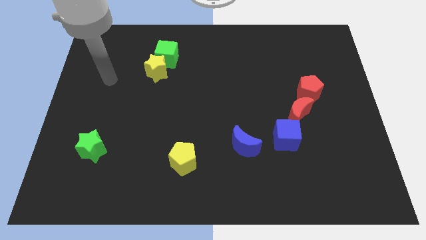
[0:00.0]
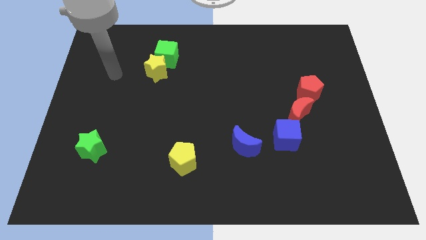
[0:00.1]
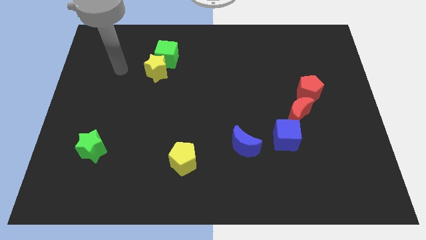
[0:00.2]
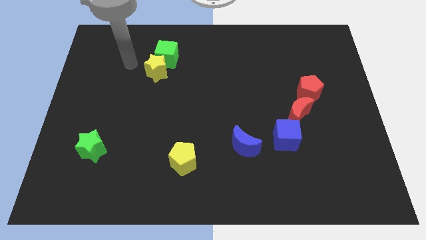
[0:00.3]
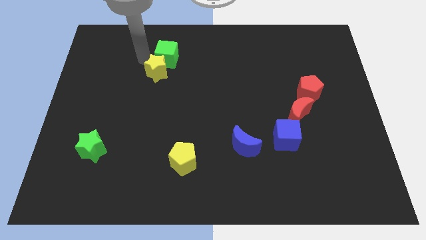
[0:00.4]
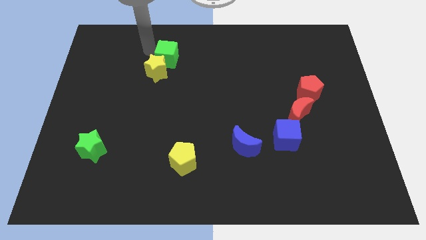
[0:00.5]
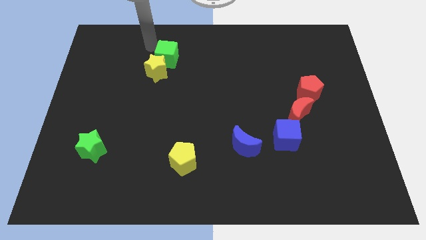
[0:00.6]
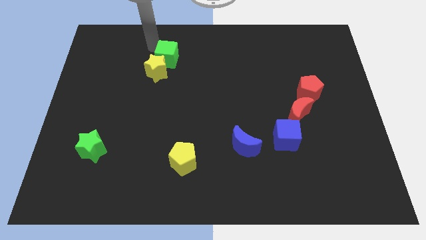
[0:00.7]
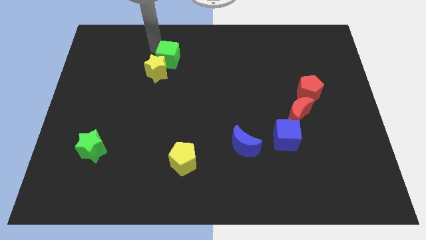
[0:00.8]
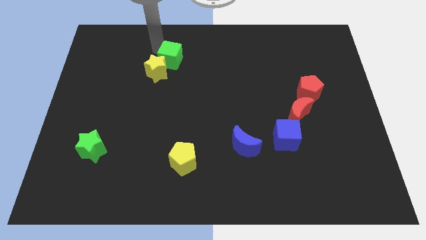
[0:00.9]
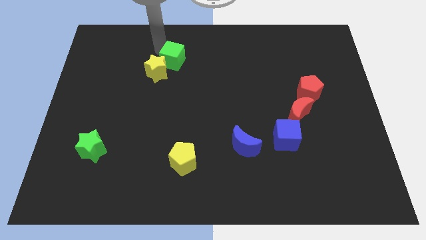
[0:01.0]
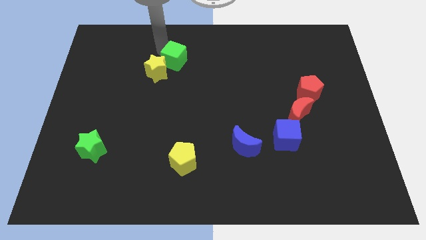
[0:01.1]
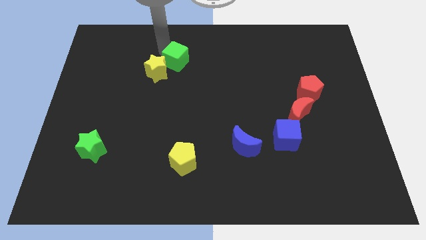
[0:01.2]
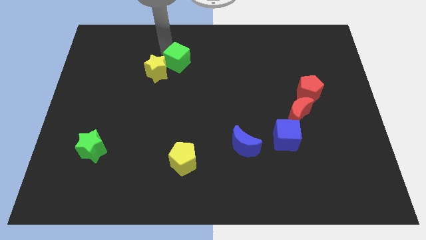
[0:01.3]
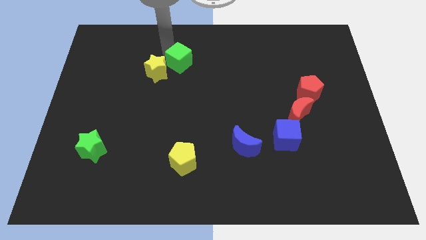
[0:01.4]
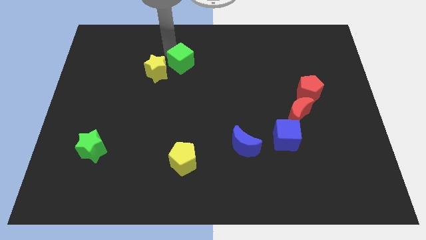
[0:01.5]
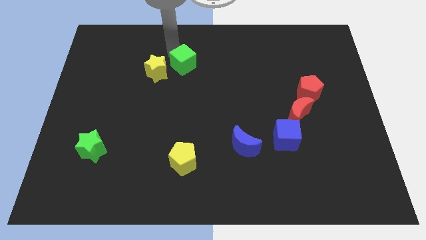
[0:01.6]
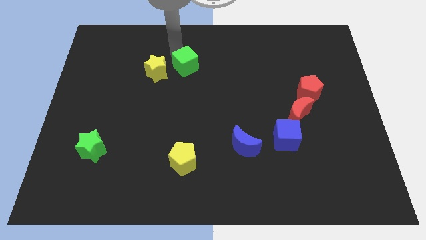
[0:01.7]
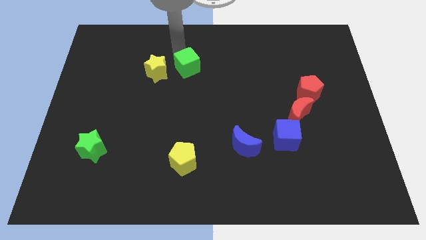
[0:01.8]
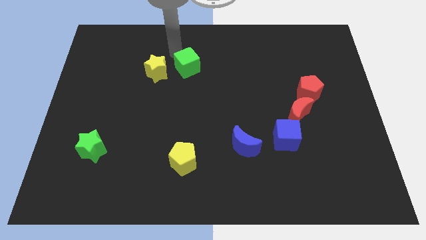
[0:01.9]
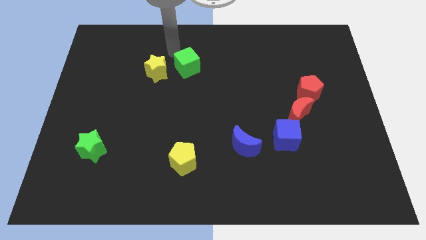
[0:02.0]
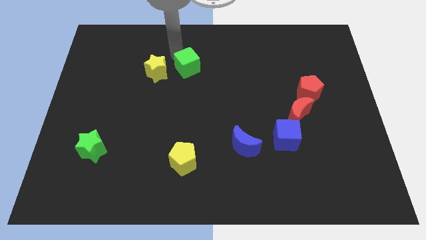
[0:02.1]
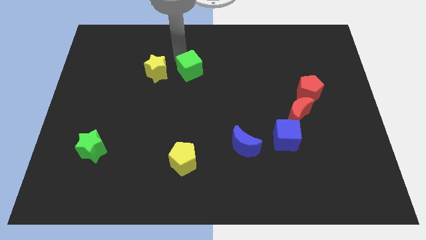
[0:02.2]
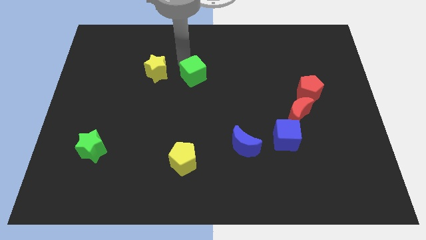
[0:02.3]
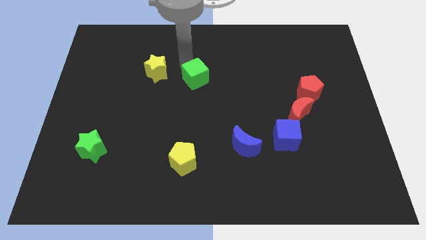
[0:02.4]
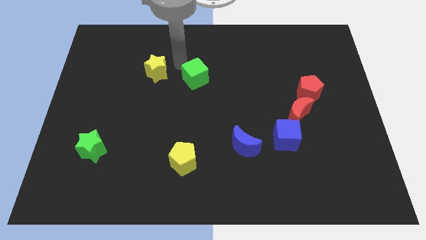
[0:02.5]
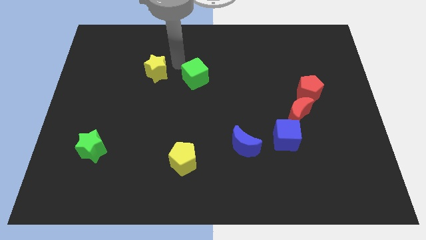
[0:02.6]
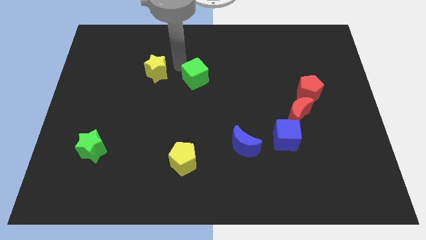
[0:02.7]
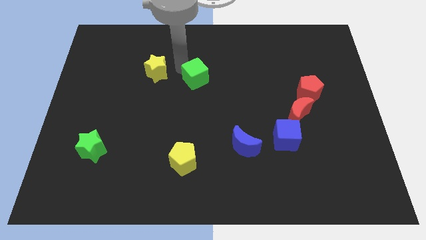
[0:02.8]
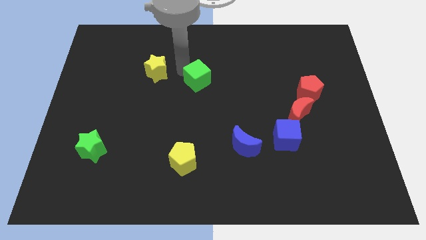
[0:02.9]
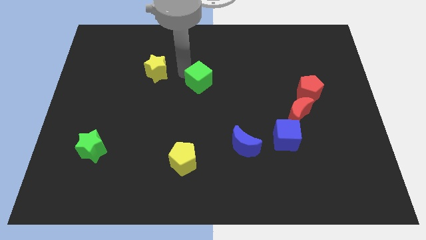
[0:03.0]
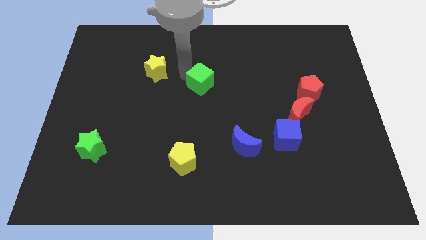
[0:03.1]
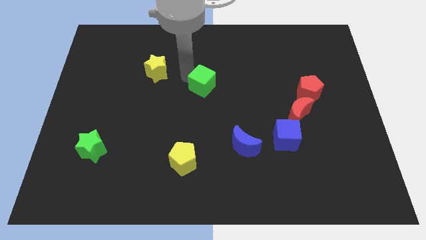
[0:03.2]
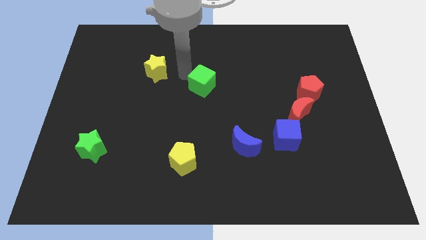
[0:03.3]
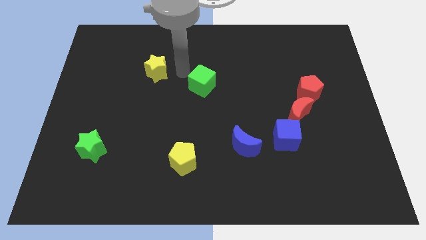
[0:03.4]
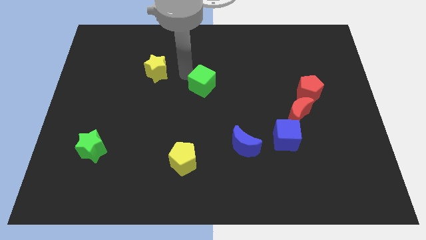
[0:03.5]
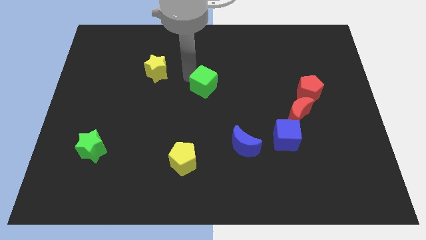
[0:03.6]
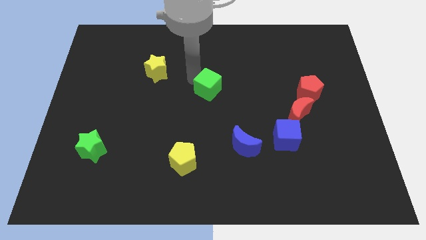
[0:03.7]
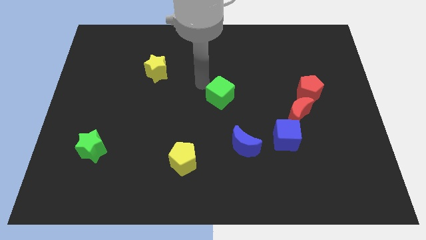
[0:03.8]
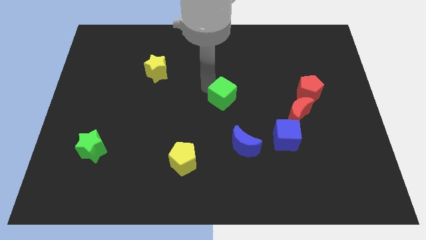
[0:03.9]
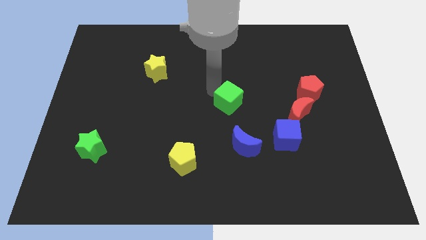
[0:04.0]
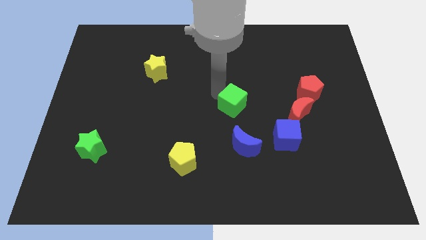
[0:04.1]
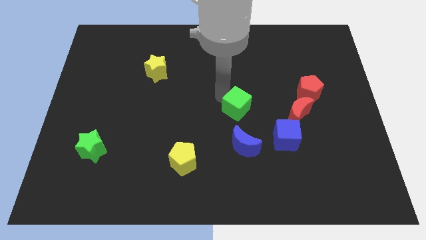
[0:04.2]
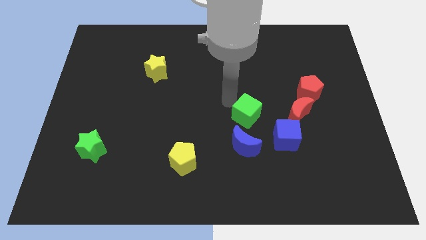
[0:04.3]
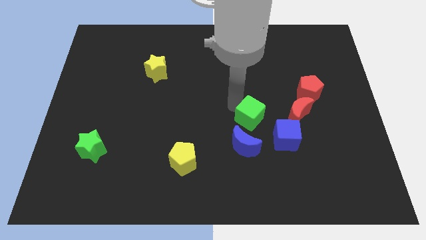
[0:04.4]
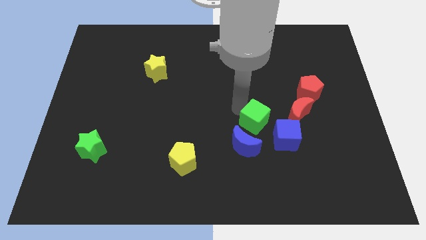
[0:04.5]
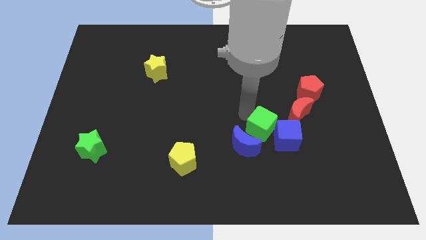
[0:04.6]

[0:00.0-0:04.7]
slide the green cube towards the blue cube

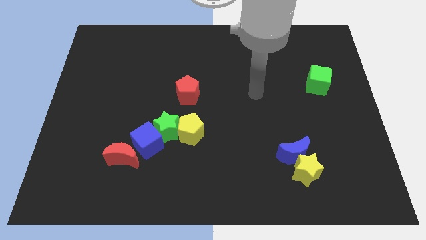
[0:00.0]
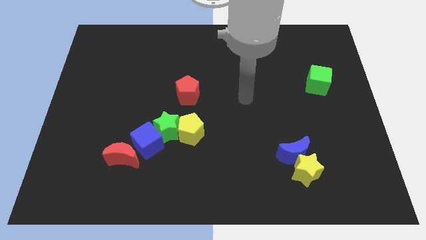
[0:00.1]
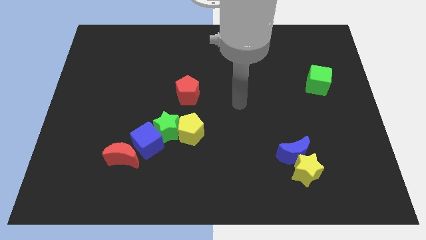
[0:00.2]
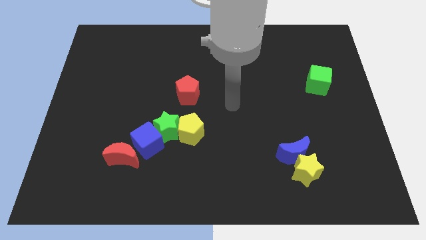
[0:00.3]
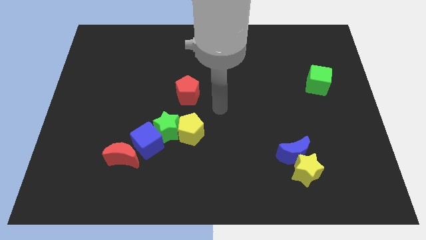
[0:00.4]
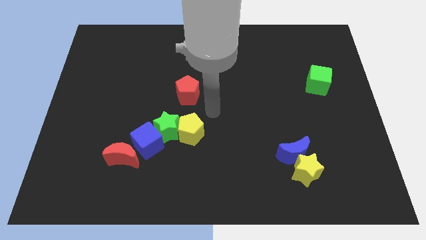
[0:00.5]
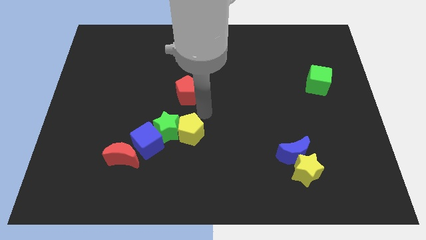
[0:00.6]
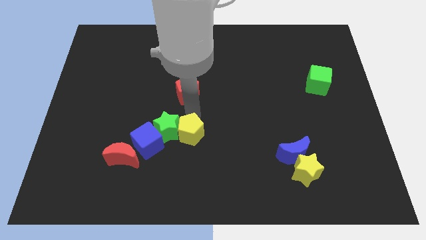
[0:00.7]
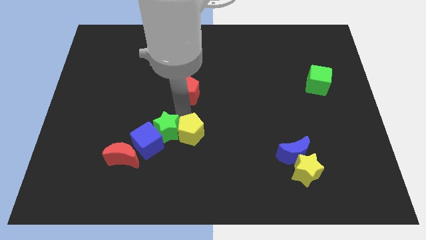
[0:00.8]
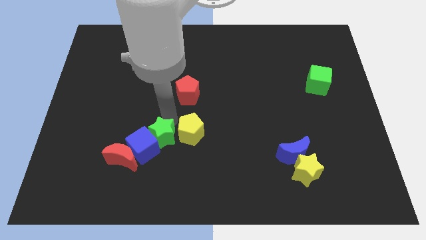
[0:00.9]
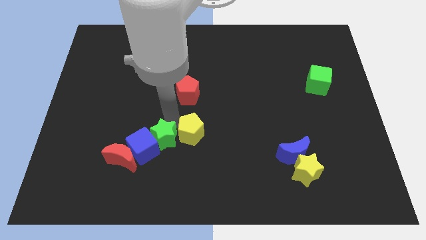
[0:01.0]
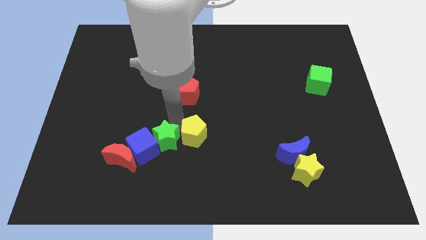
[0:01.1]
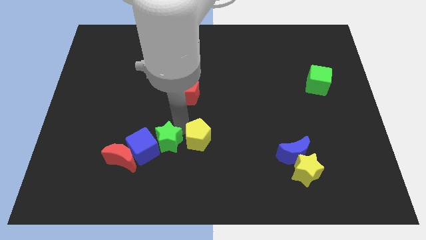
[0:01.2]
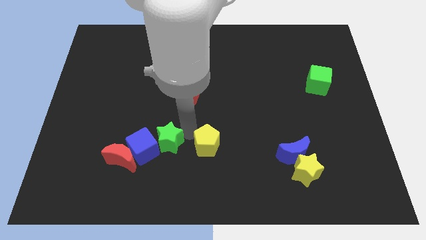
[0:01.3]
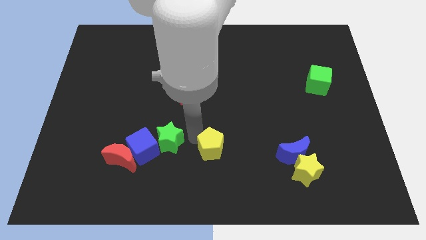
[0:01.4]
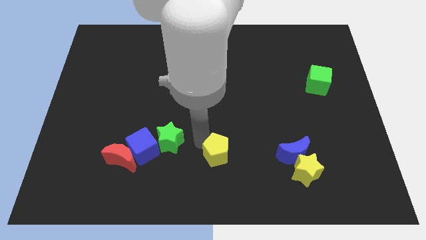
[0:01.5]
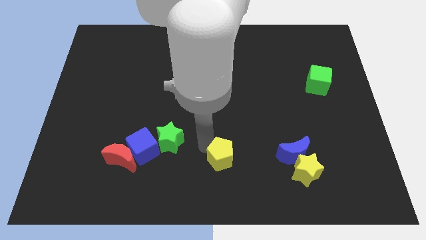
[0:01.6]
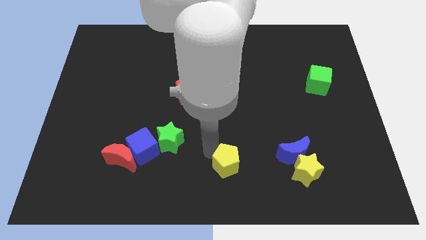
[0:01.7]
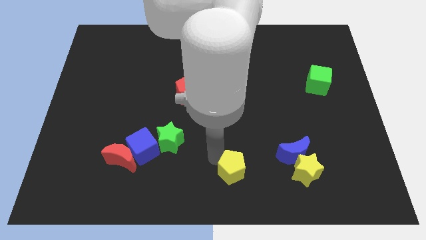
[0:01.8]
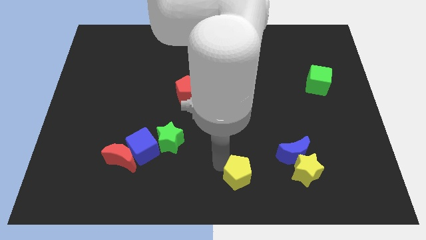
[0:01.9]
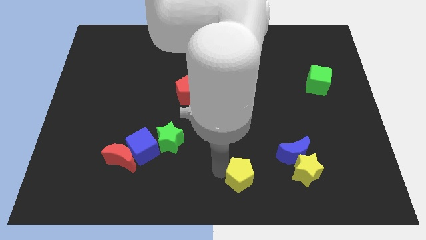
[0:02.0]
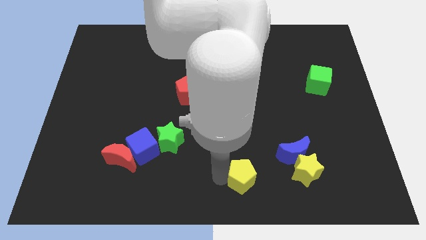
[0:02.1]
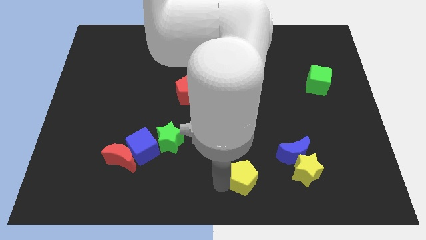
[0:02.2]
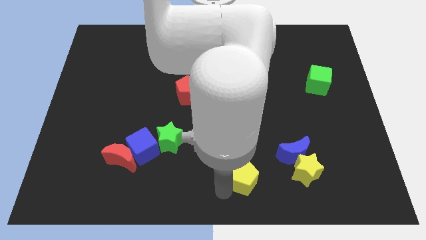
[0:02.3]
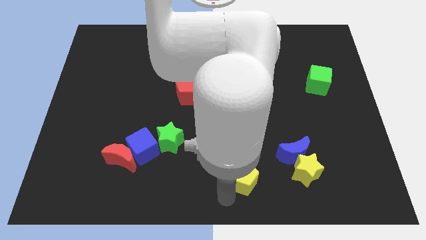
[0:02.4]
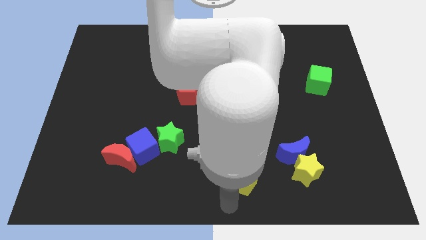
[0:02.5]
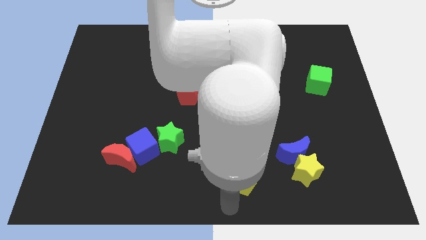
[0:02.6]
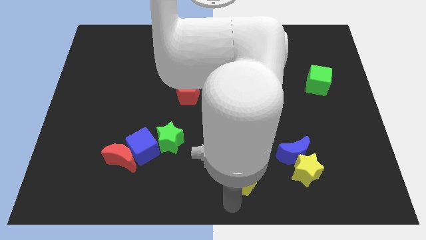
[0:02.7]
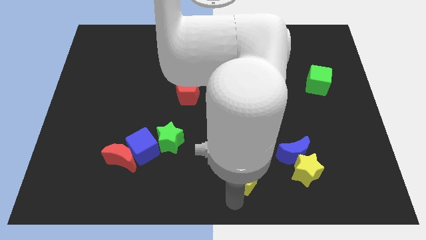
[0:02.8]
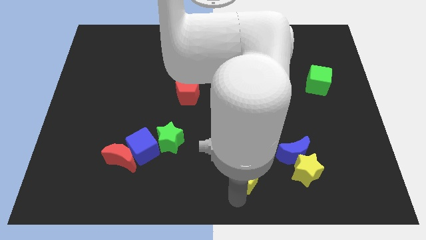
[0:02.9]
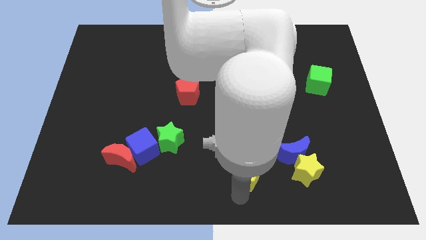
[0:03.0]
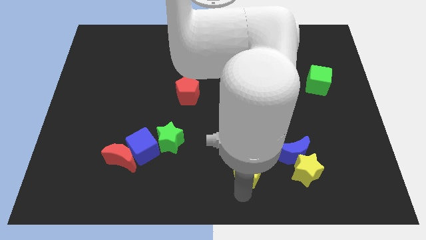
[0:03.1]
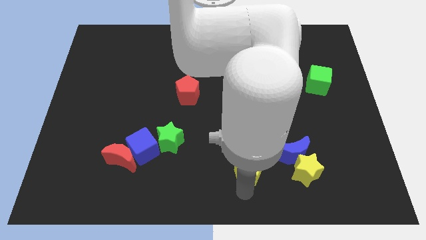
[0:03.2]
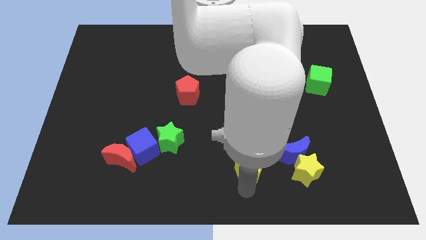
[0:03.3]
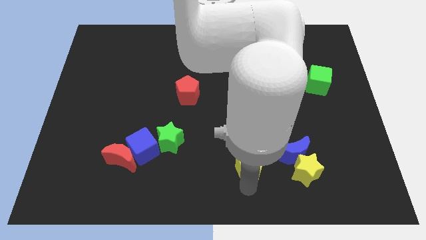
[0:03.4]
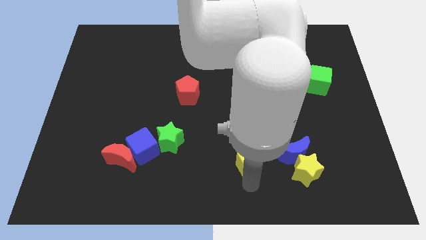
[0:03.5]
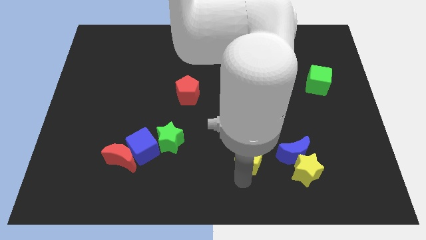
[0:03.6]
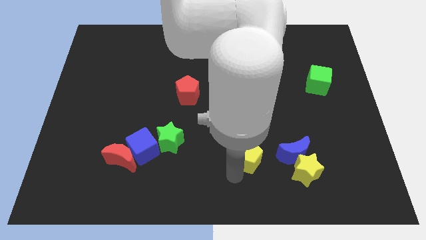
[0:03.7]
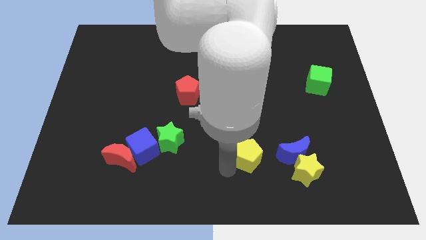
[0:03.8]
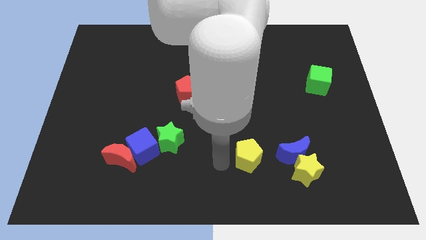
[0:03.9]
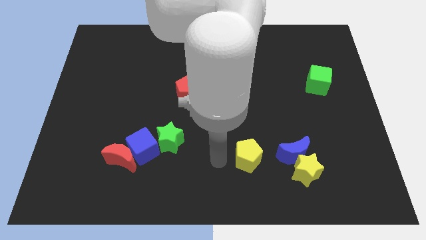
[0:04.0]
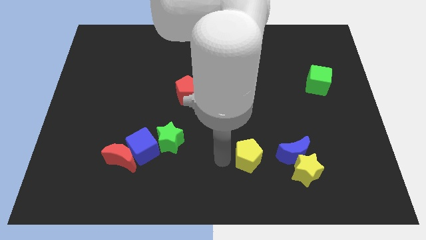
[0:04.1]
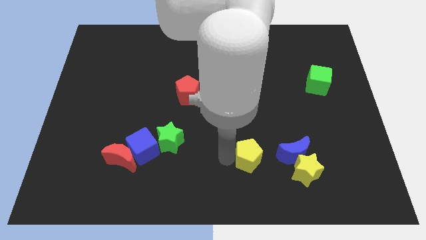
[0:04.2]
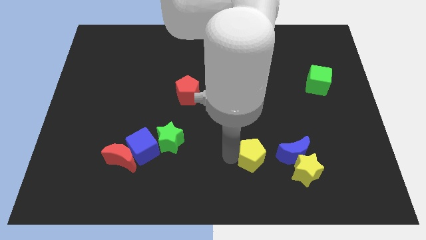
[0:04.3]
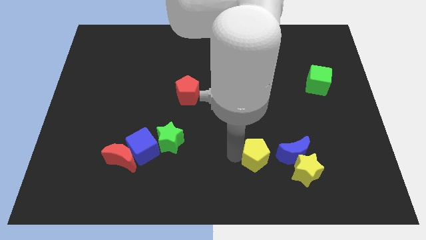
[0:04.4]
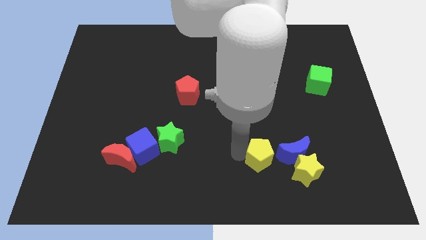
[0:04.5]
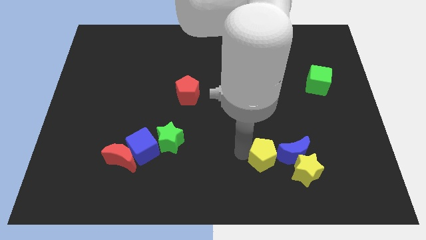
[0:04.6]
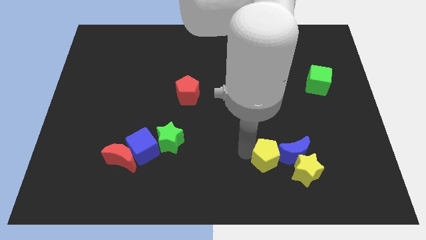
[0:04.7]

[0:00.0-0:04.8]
push the yellow pentagon towards the blue moon
